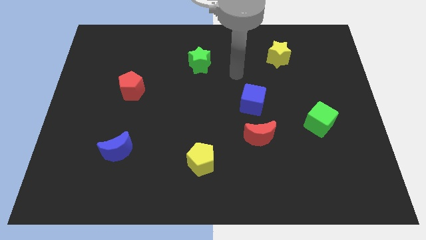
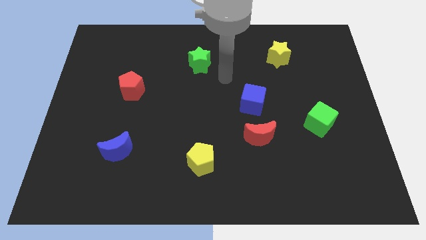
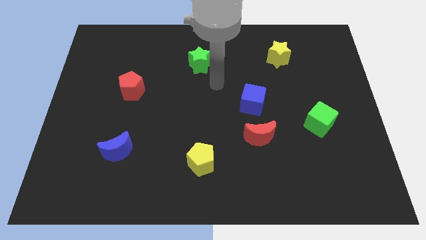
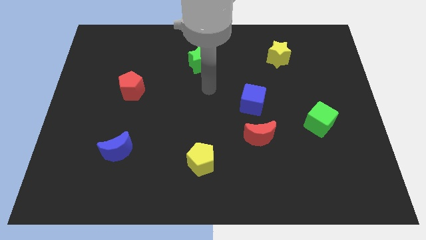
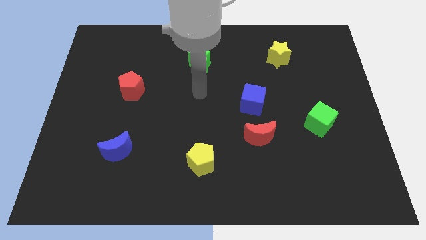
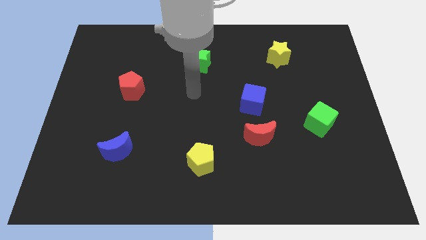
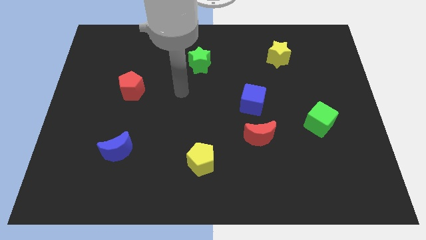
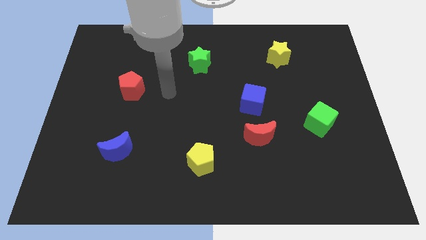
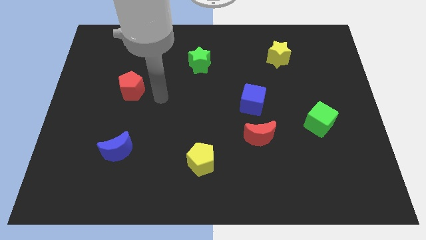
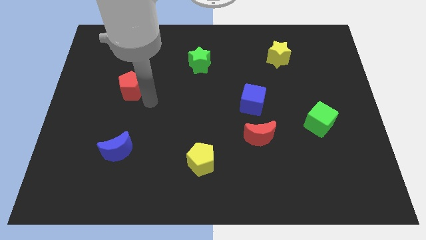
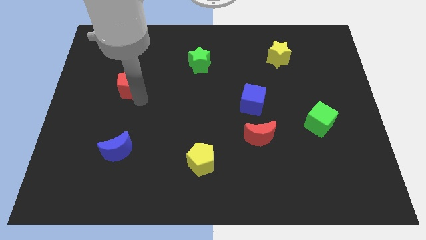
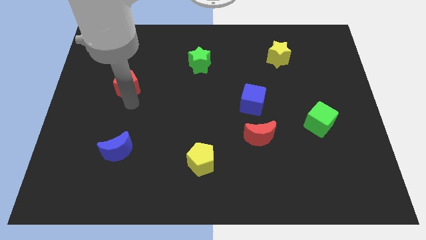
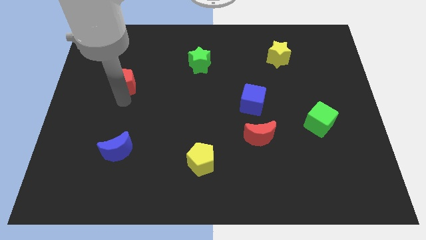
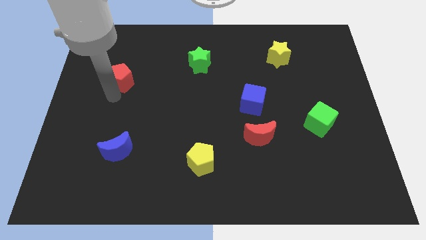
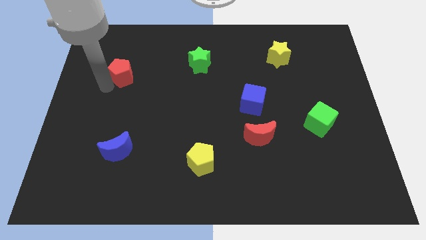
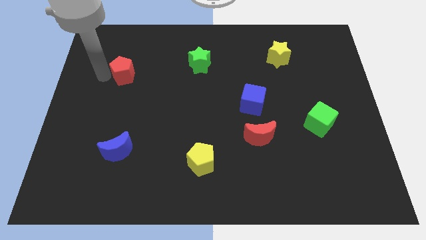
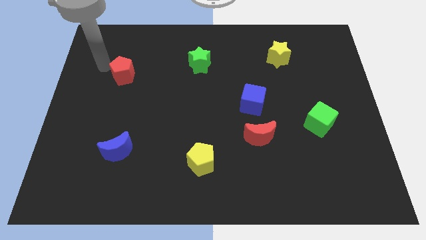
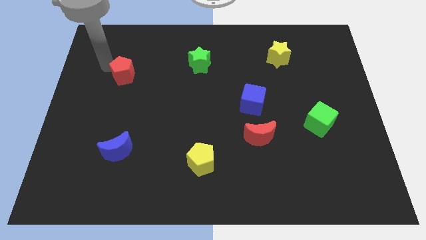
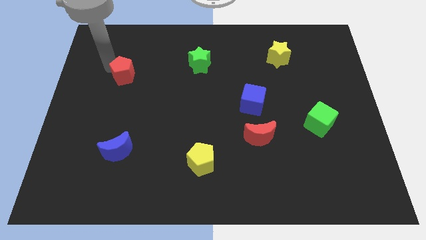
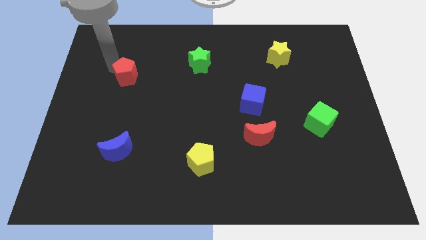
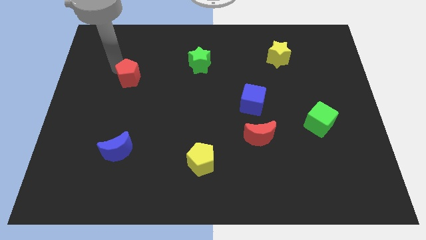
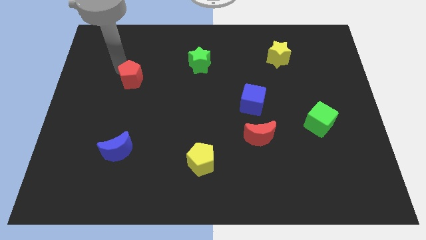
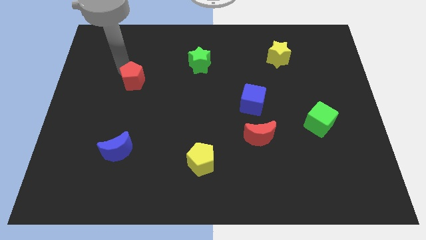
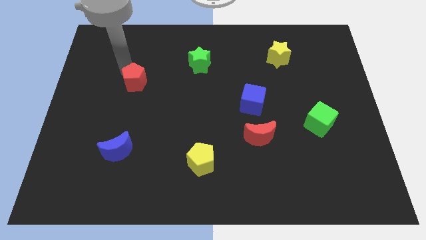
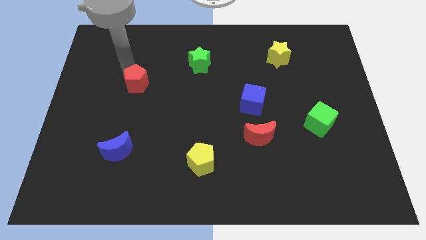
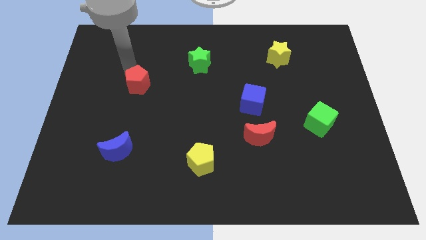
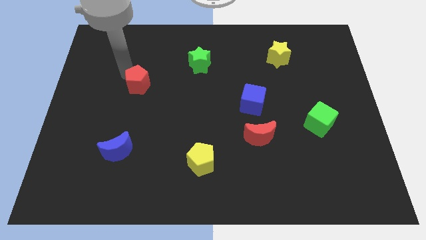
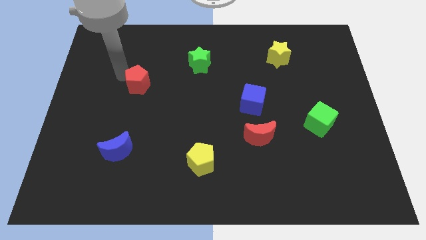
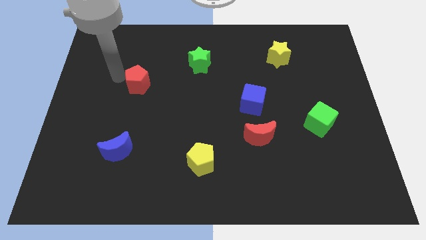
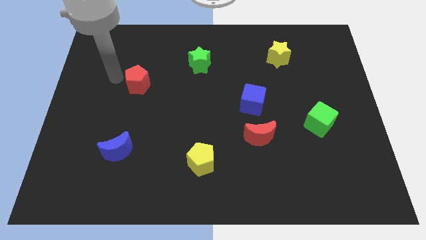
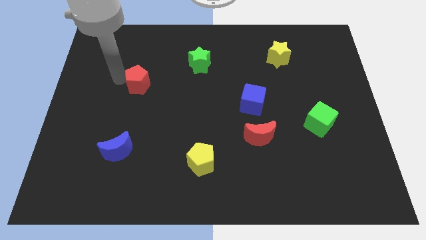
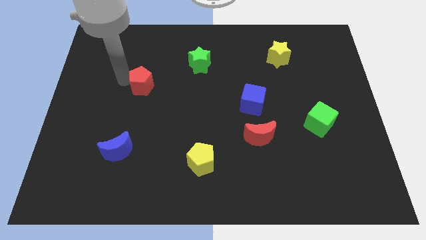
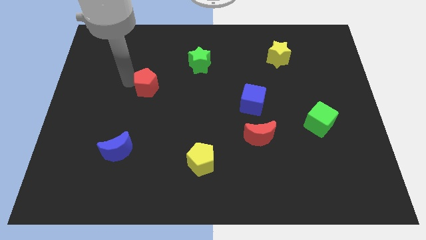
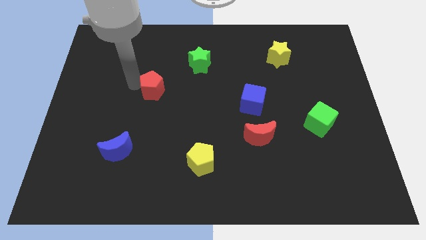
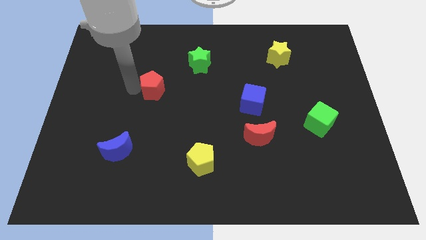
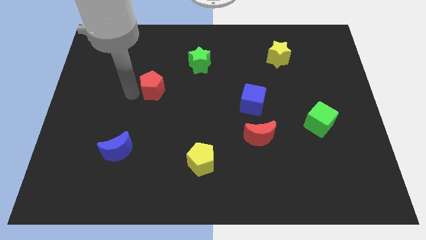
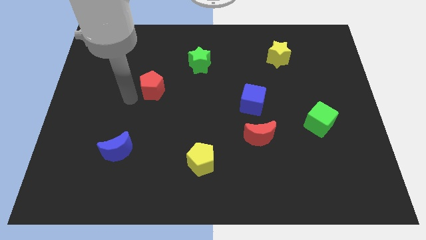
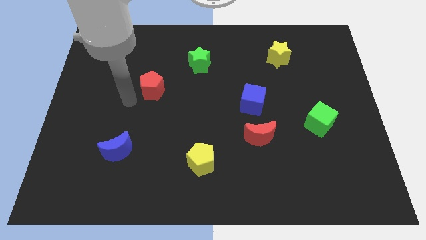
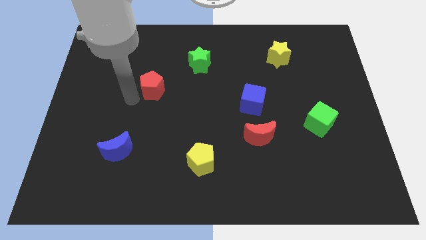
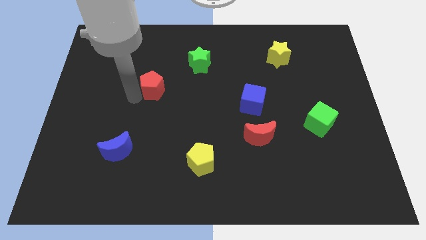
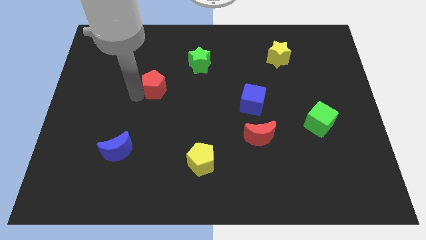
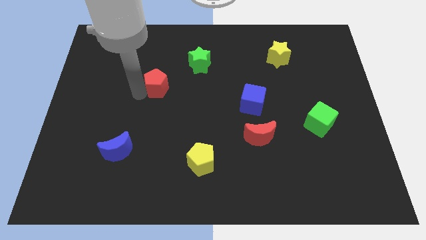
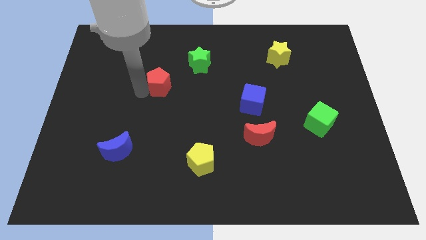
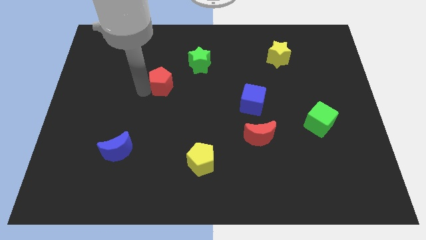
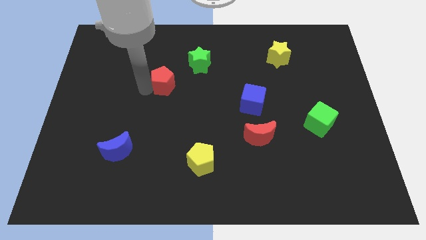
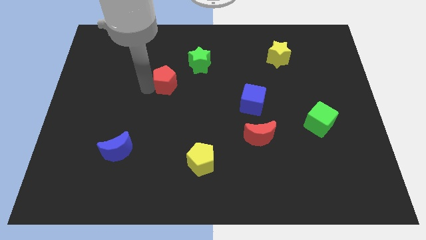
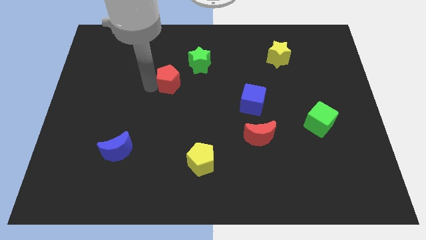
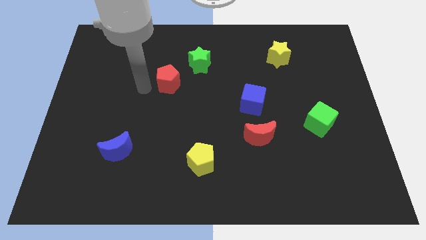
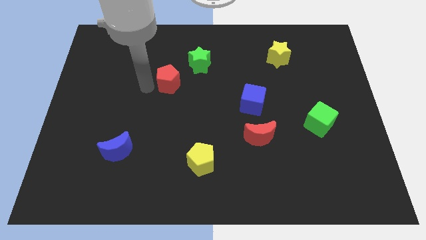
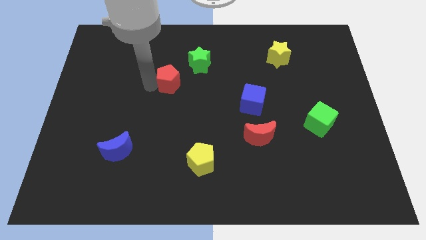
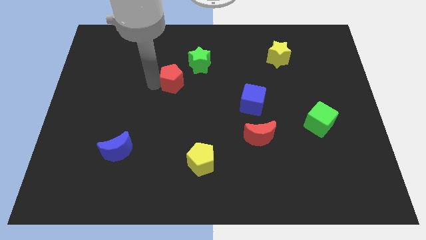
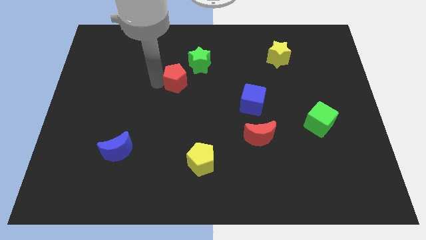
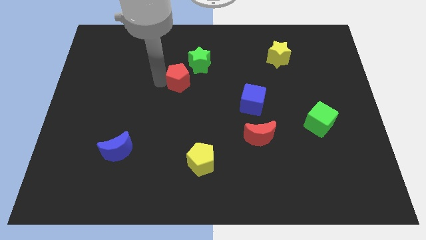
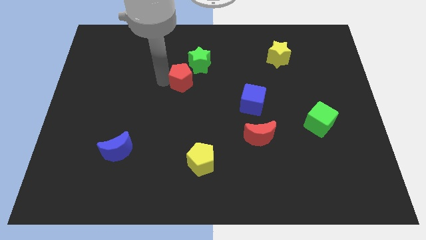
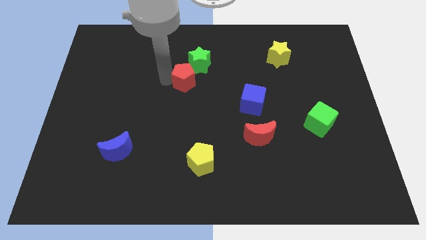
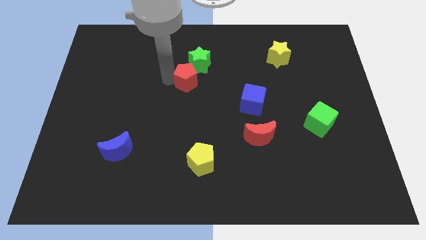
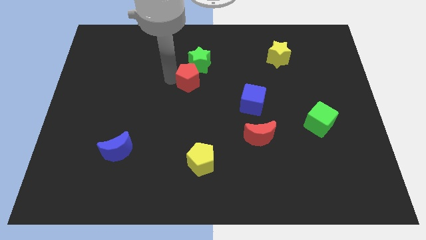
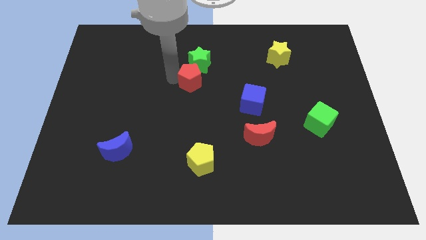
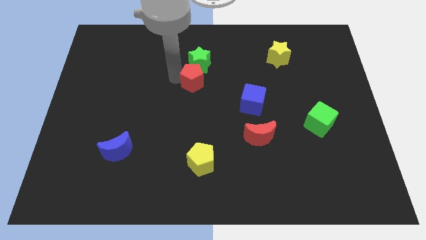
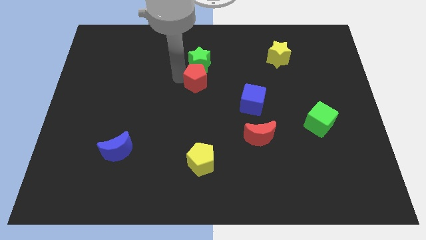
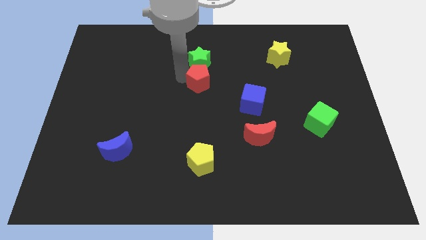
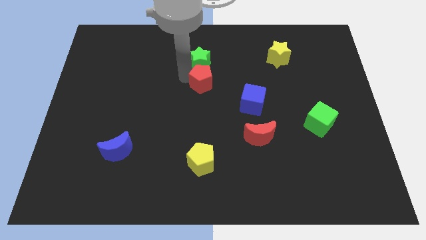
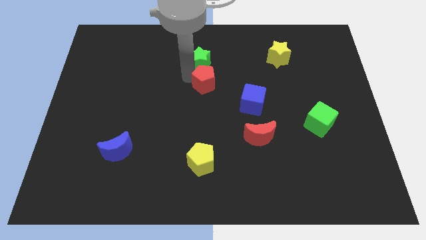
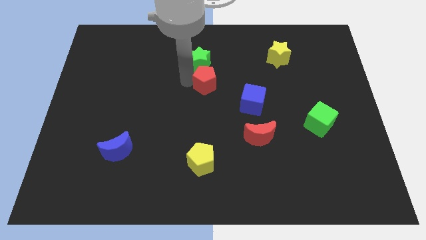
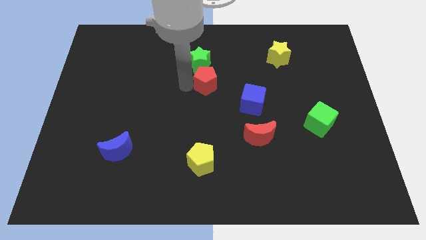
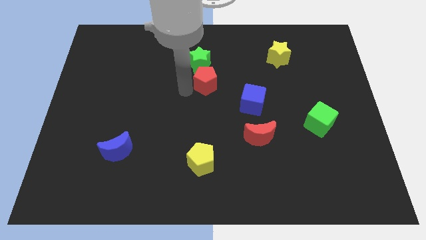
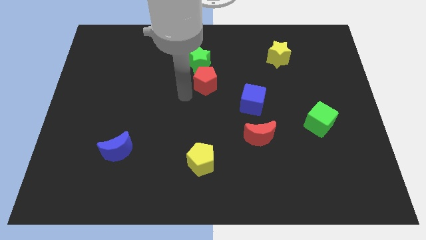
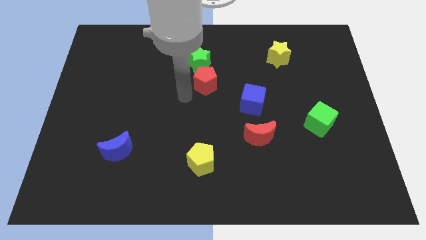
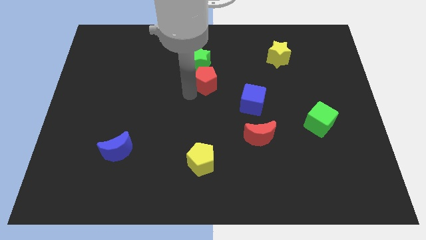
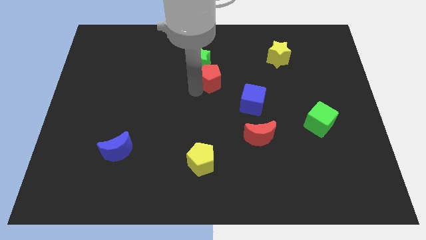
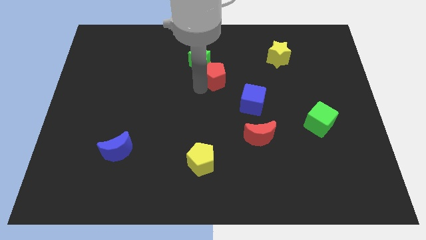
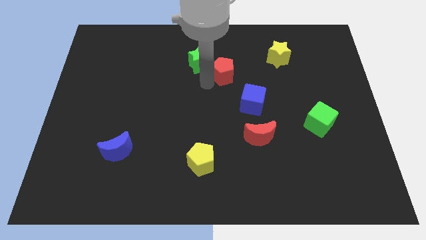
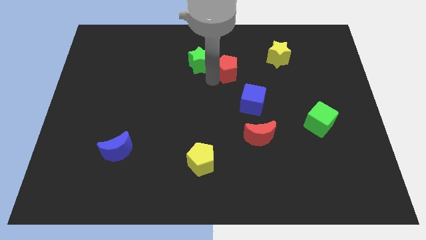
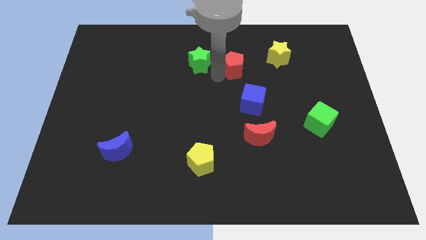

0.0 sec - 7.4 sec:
put the red pentagon above the blue cube

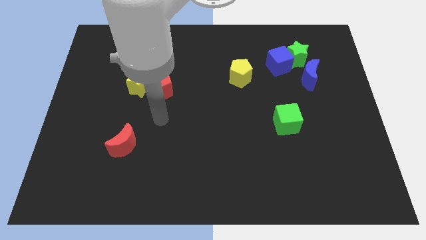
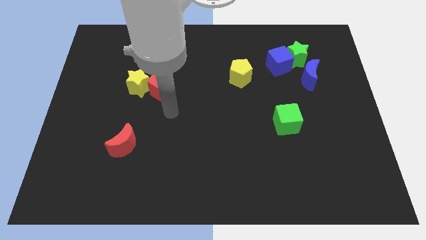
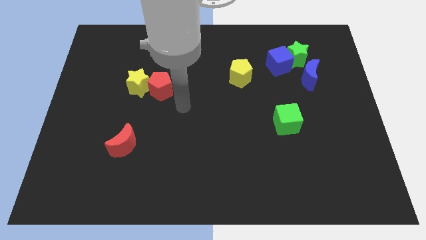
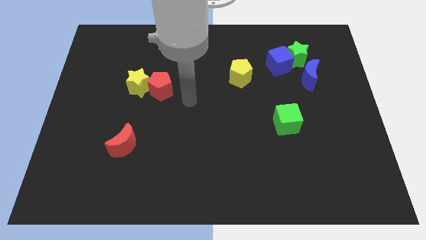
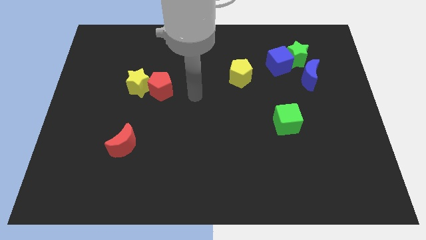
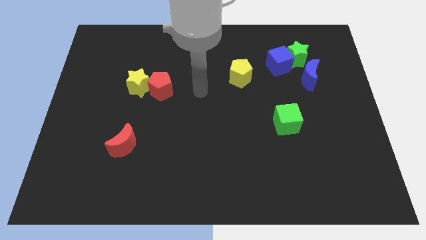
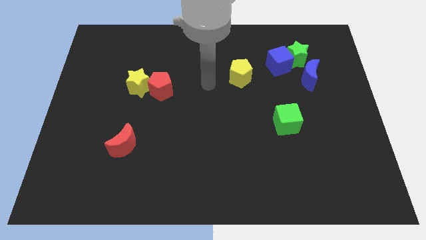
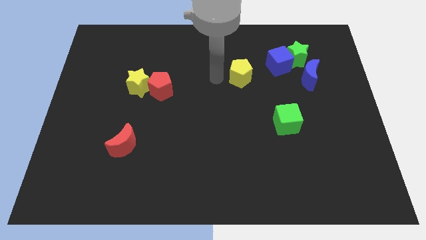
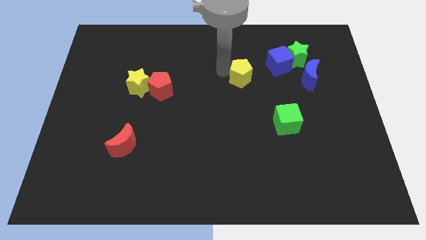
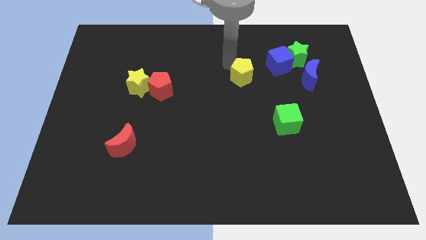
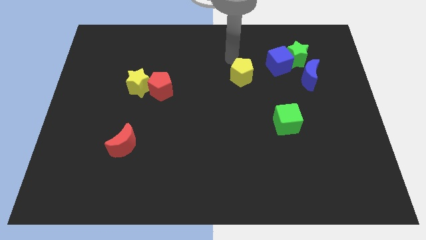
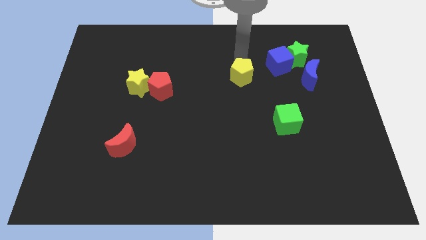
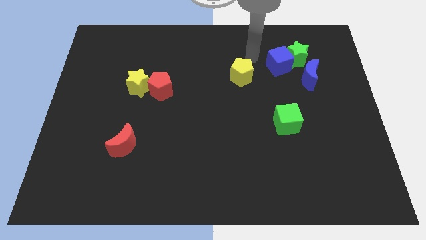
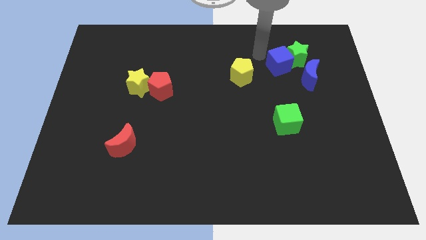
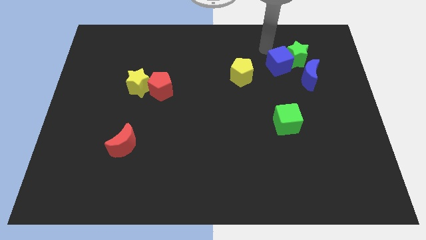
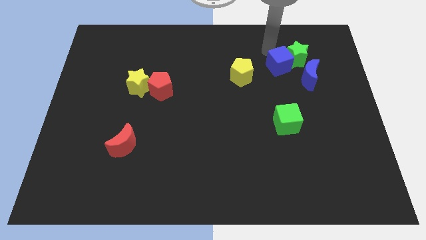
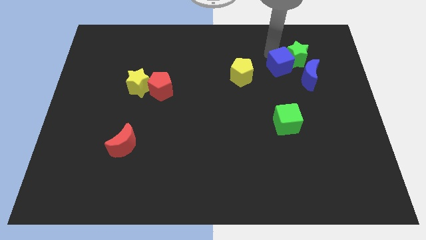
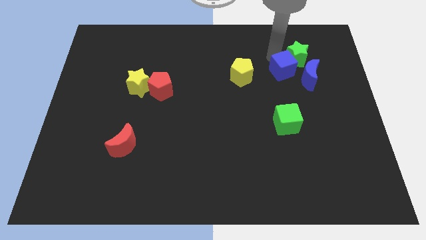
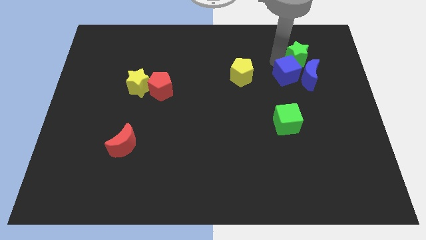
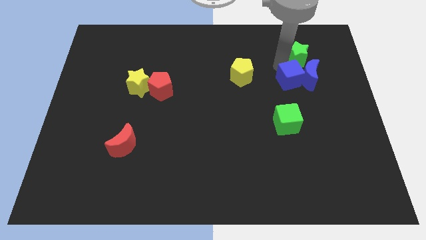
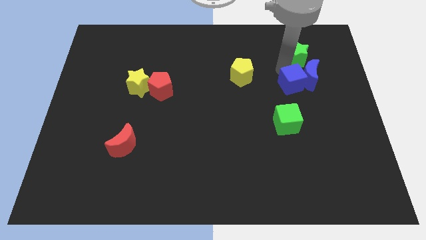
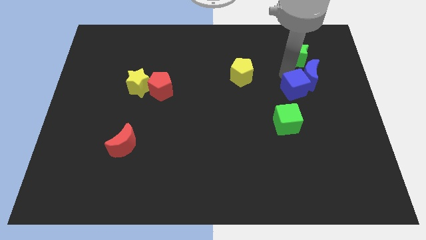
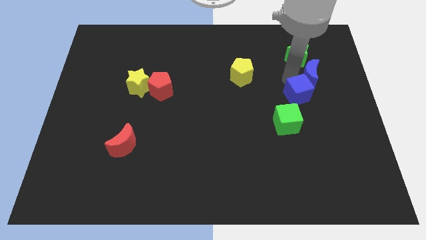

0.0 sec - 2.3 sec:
push the blue cube diagonally up and to the right of the green cube
